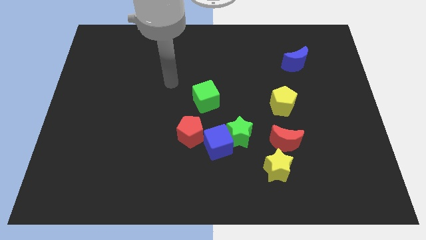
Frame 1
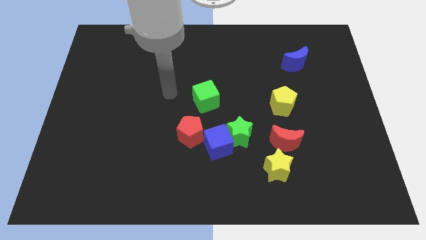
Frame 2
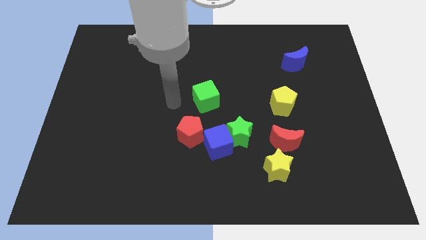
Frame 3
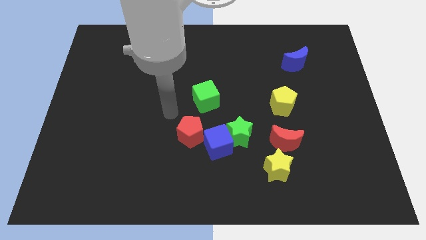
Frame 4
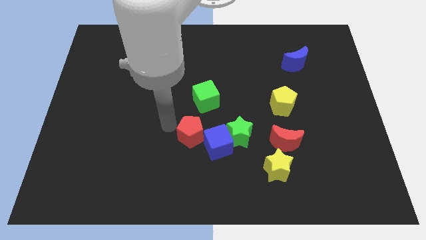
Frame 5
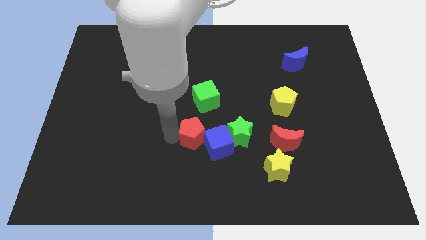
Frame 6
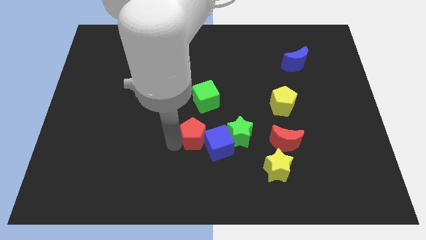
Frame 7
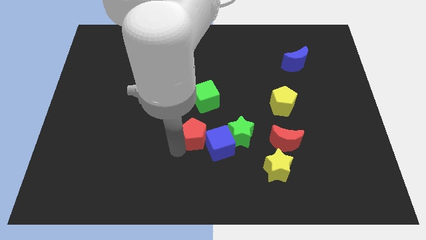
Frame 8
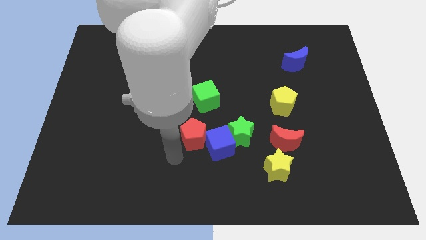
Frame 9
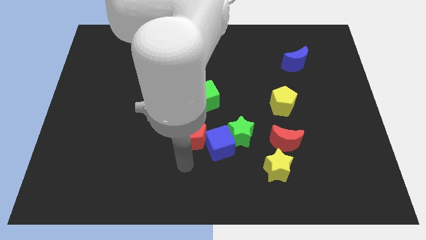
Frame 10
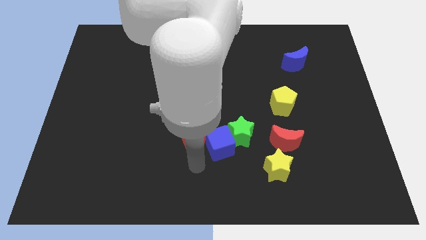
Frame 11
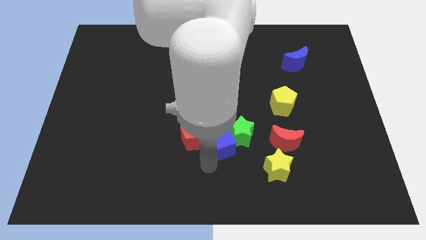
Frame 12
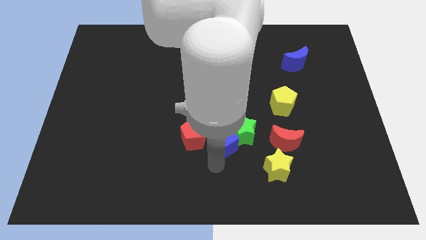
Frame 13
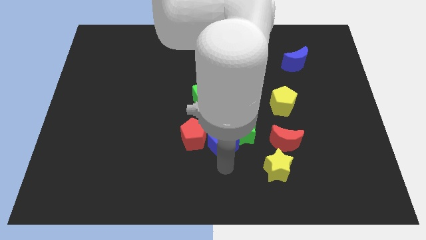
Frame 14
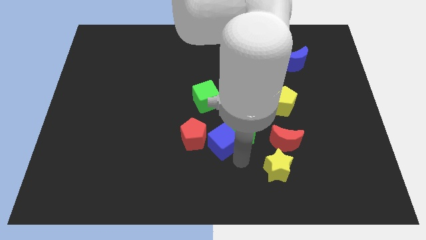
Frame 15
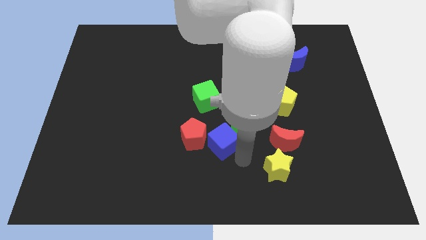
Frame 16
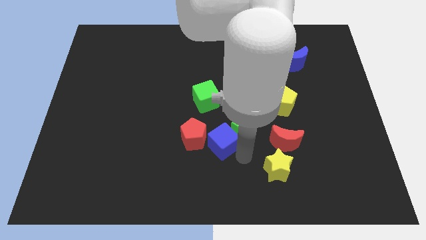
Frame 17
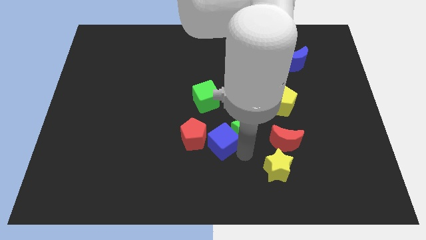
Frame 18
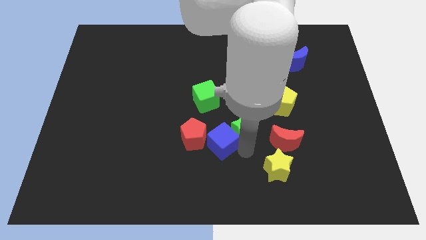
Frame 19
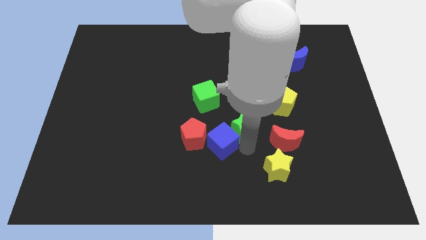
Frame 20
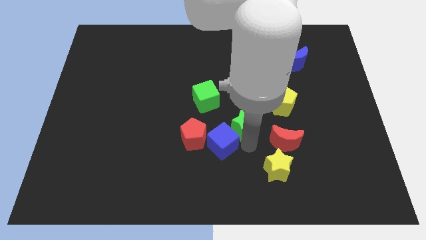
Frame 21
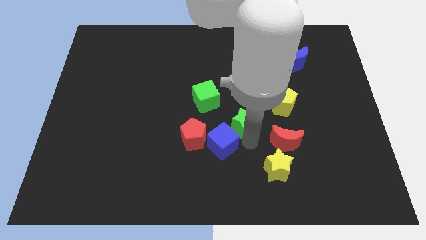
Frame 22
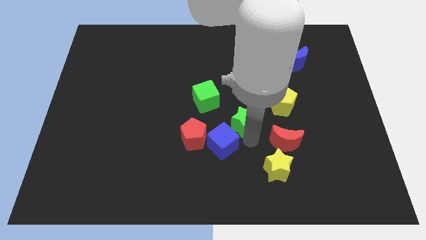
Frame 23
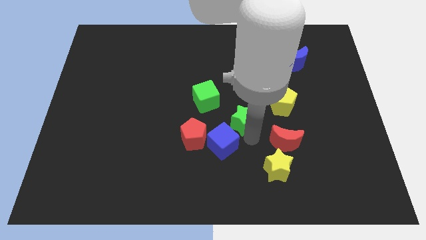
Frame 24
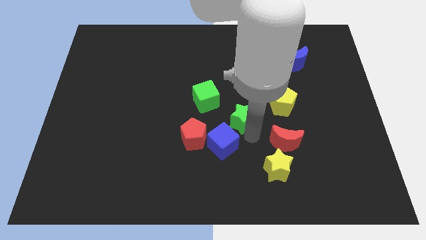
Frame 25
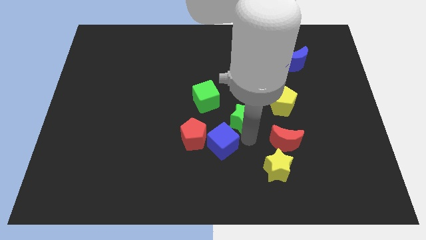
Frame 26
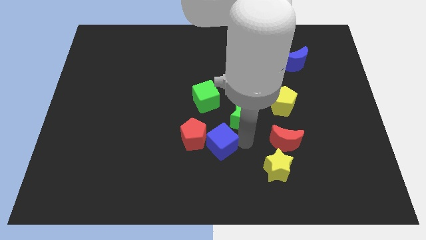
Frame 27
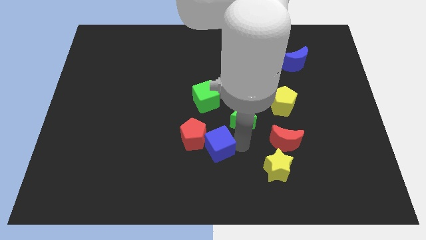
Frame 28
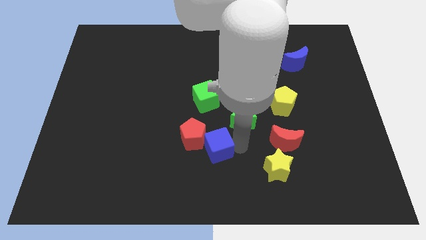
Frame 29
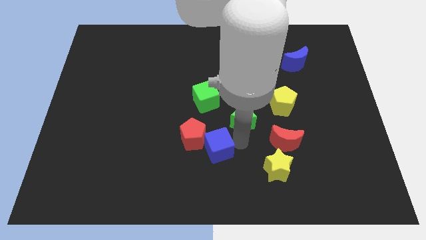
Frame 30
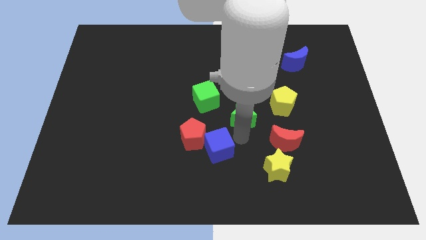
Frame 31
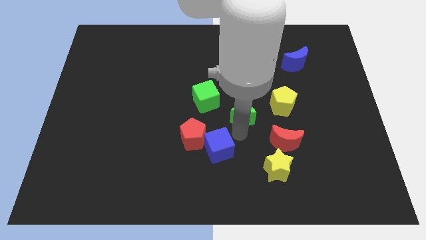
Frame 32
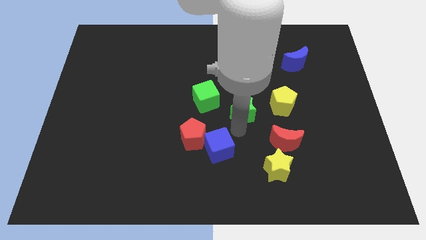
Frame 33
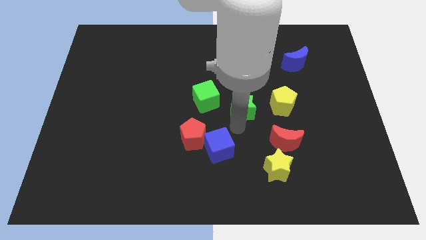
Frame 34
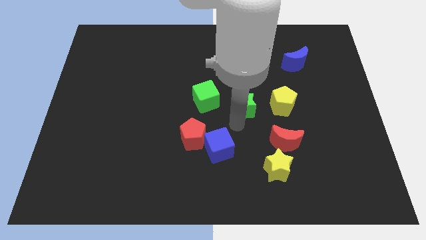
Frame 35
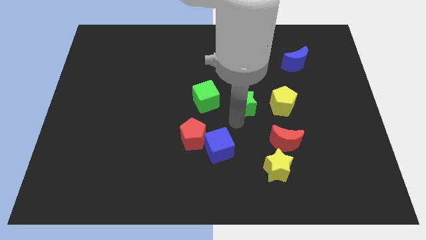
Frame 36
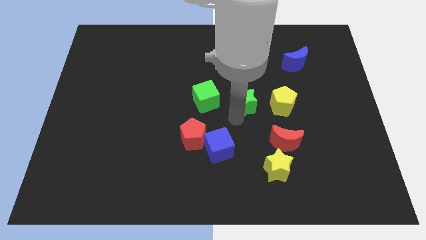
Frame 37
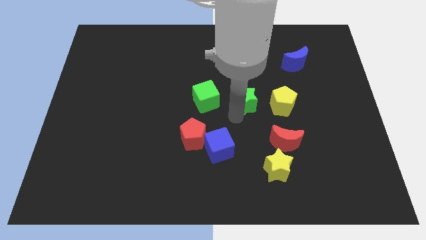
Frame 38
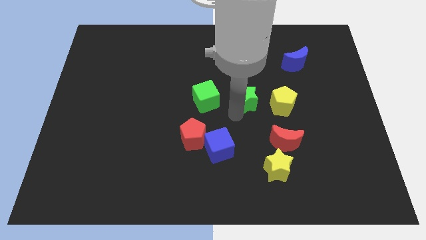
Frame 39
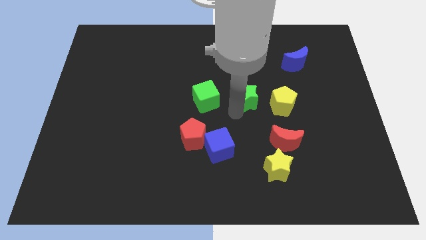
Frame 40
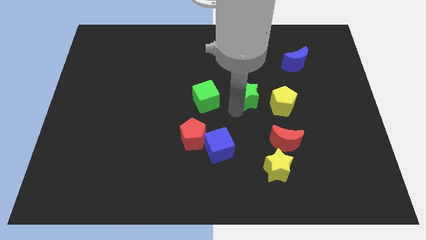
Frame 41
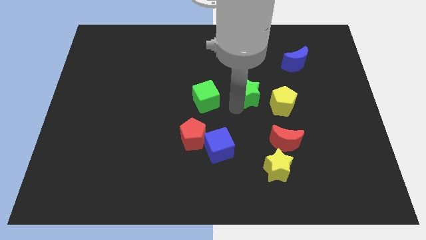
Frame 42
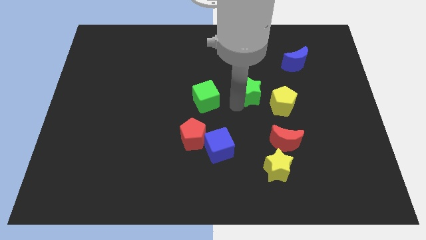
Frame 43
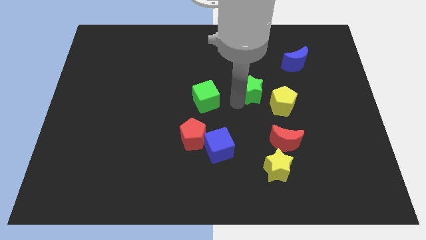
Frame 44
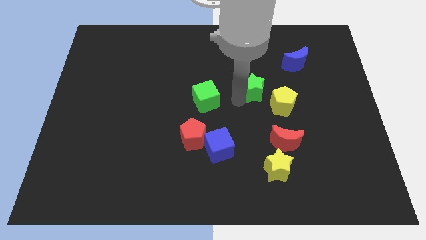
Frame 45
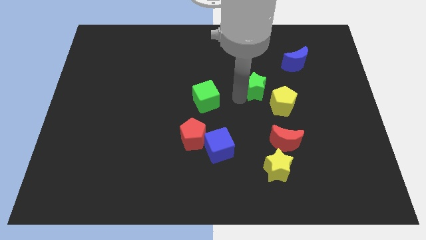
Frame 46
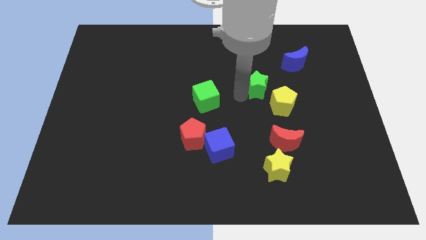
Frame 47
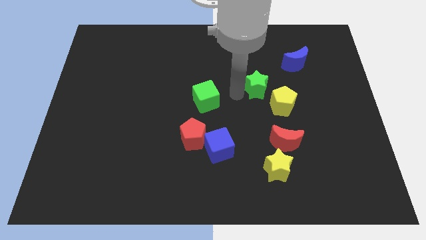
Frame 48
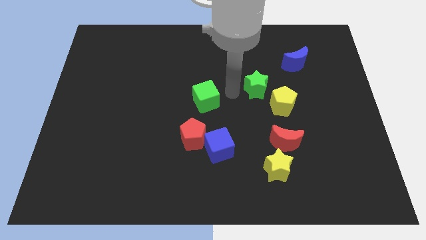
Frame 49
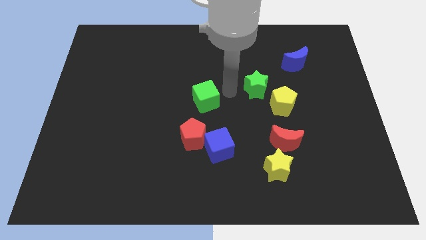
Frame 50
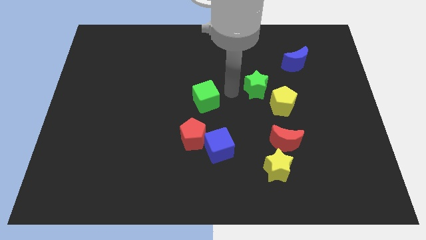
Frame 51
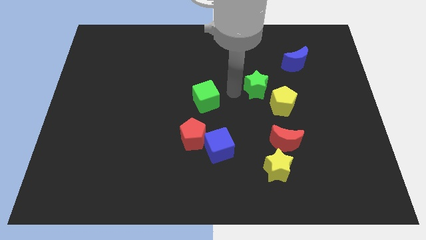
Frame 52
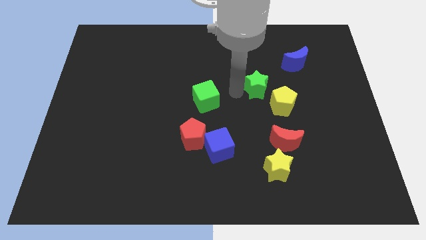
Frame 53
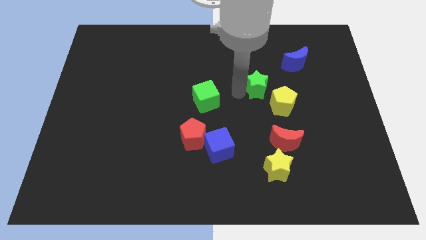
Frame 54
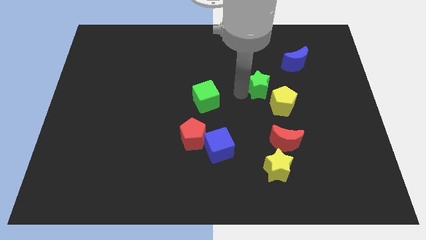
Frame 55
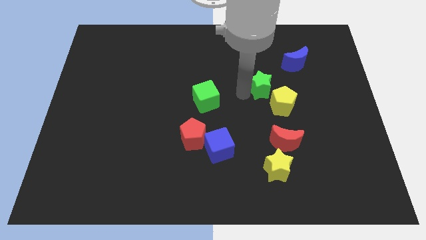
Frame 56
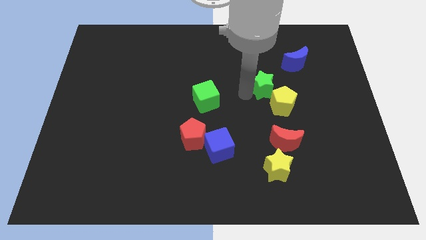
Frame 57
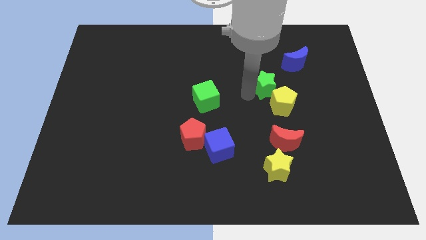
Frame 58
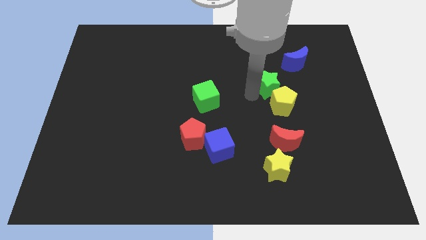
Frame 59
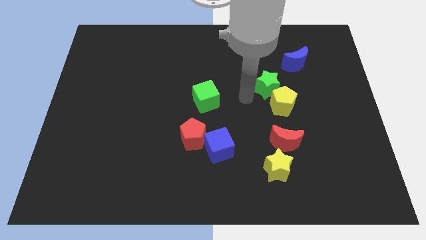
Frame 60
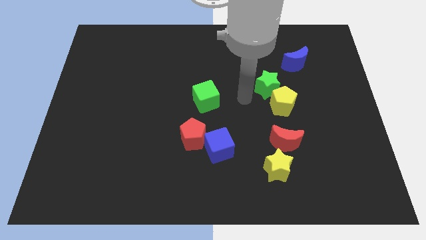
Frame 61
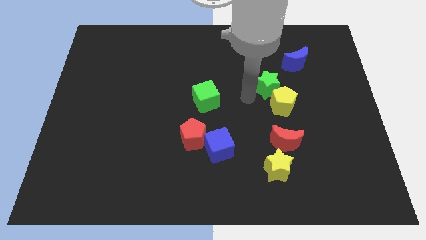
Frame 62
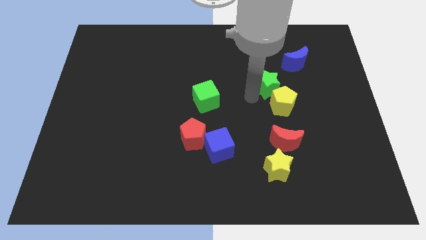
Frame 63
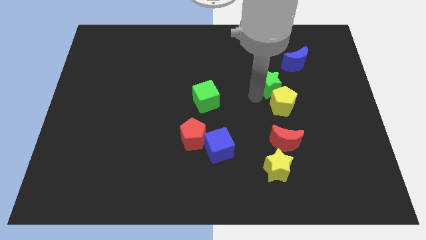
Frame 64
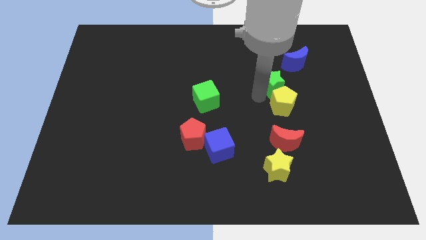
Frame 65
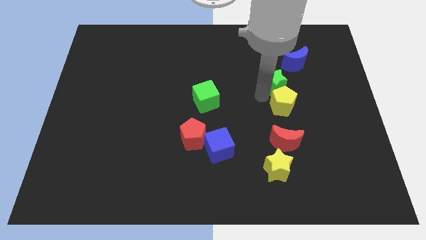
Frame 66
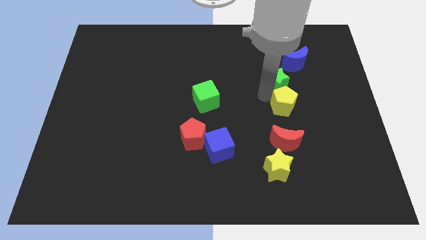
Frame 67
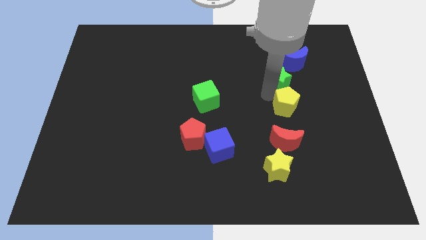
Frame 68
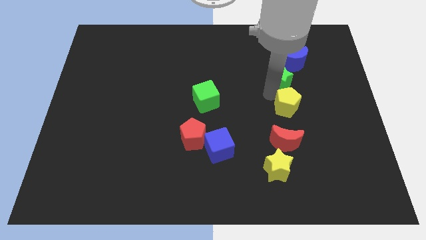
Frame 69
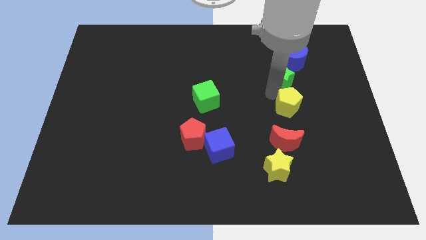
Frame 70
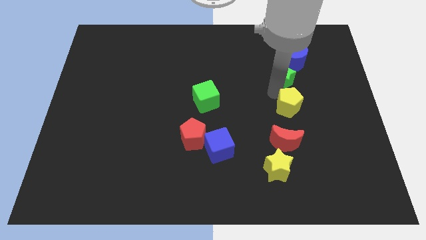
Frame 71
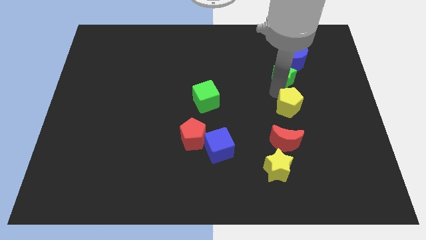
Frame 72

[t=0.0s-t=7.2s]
move the green star diagonally upwards and to the right

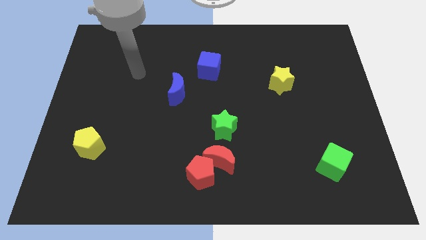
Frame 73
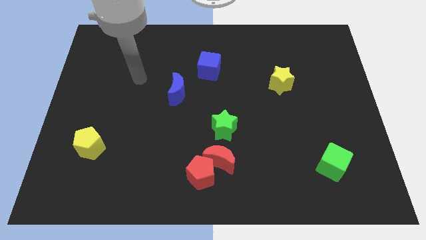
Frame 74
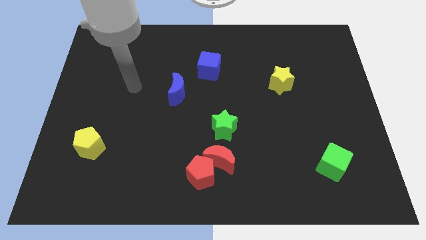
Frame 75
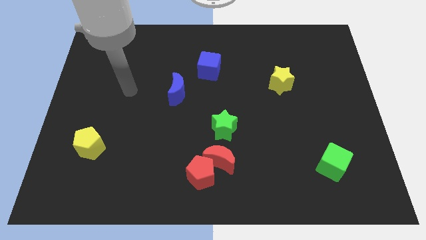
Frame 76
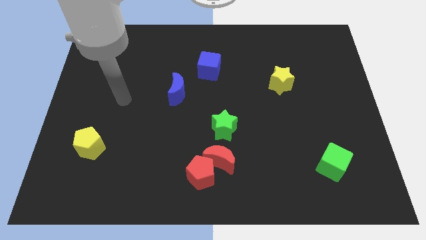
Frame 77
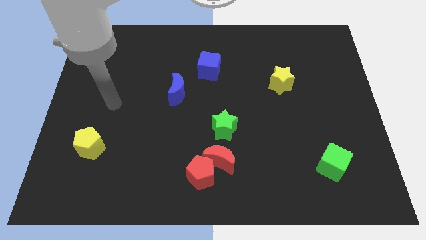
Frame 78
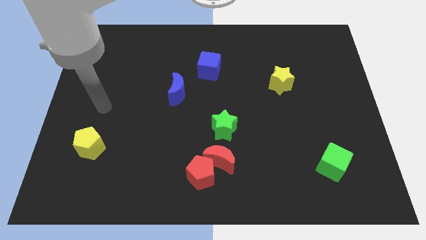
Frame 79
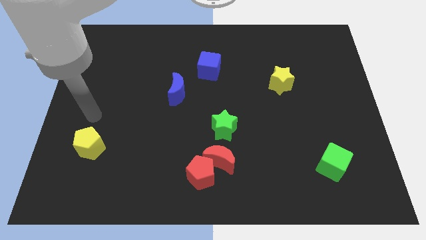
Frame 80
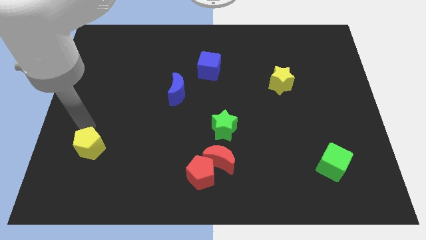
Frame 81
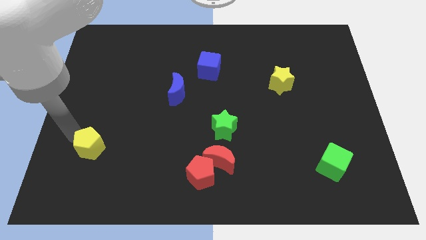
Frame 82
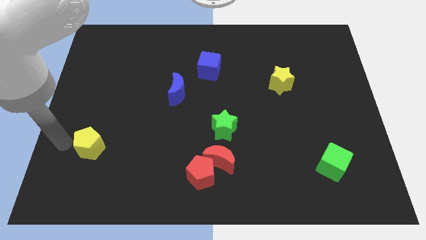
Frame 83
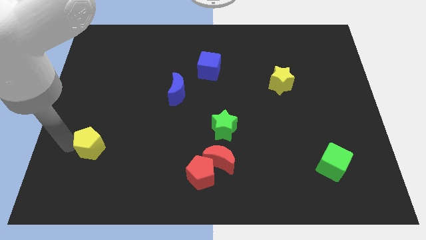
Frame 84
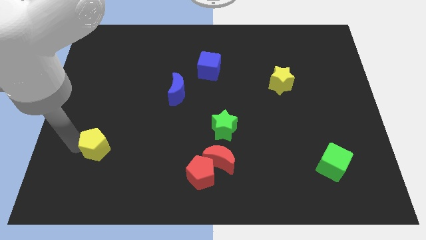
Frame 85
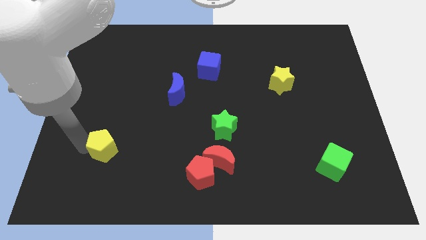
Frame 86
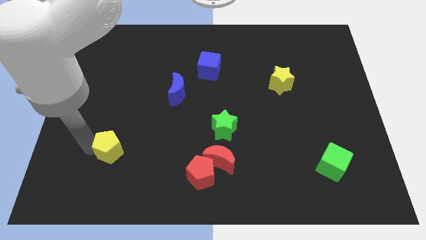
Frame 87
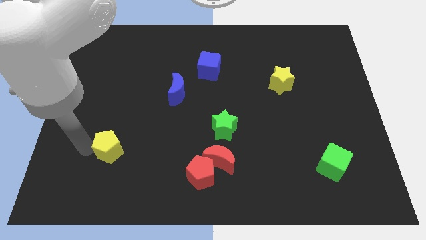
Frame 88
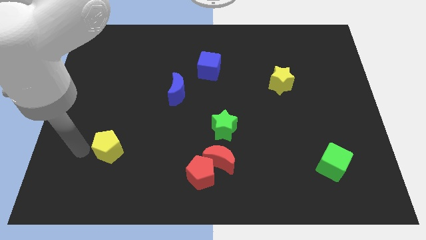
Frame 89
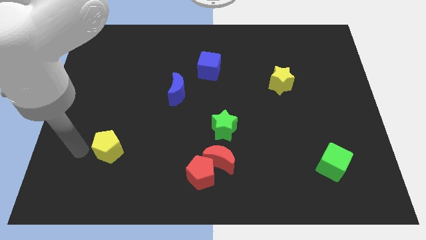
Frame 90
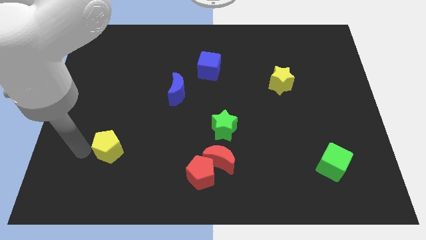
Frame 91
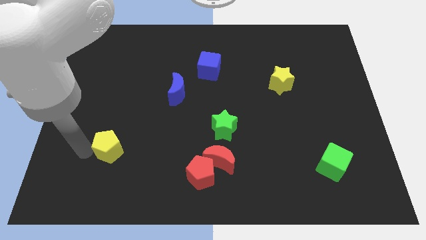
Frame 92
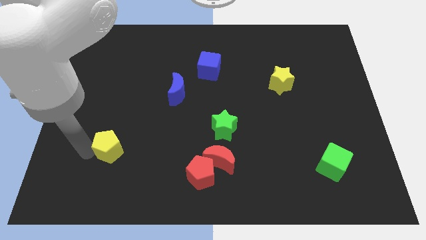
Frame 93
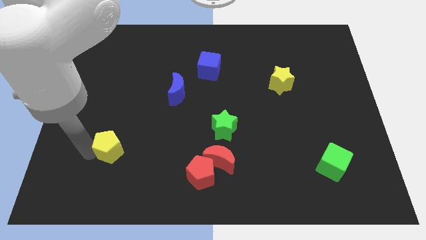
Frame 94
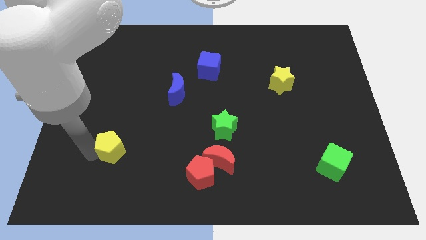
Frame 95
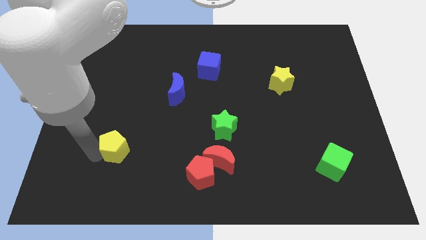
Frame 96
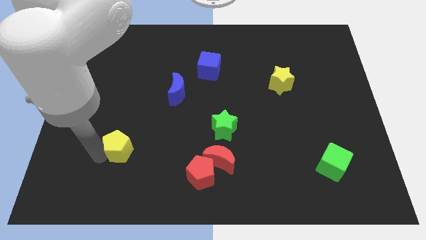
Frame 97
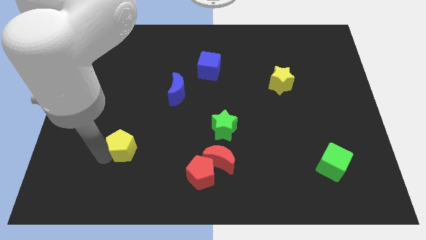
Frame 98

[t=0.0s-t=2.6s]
slightly slide the yellow pentagon to the right
